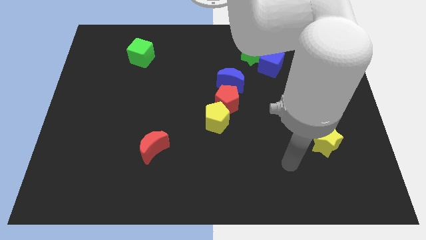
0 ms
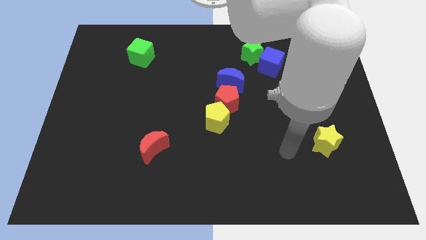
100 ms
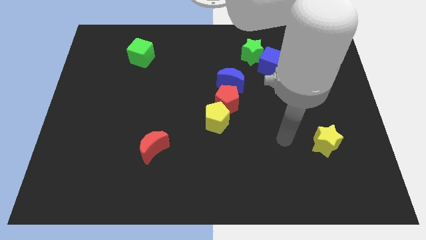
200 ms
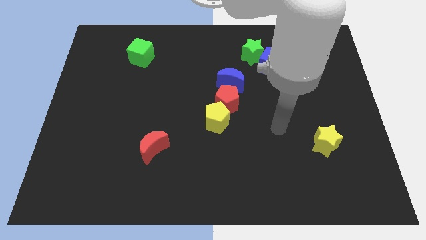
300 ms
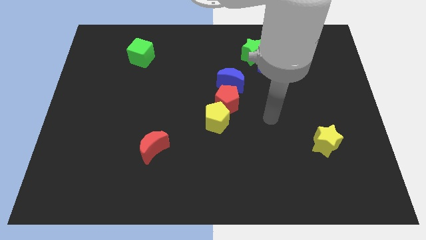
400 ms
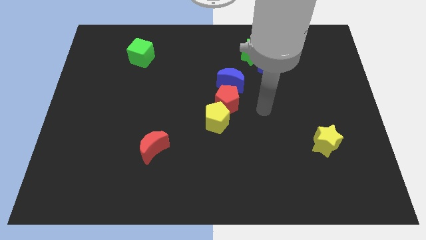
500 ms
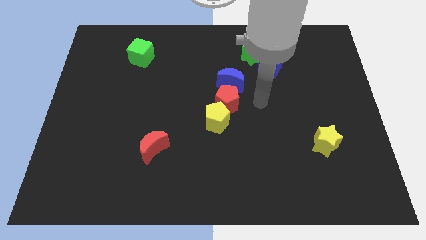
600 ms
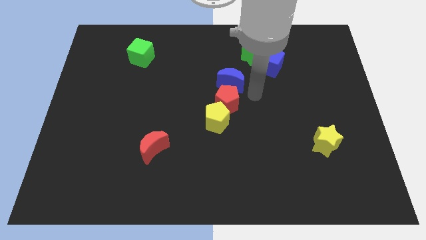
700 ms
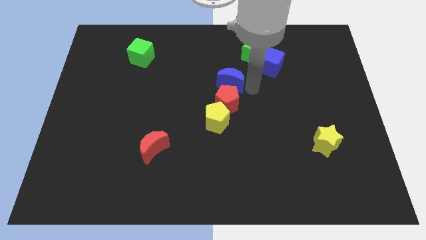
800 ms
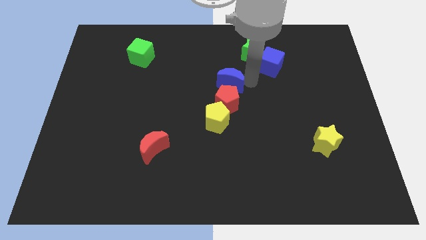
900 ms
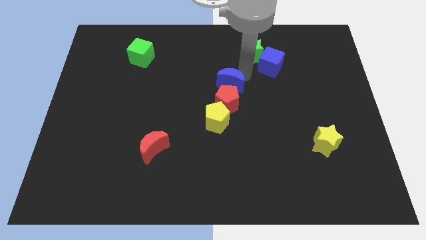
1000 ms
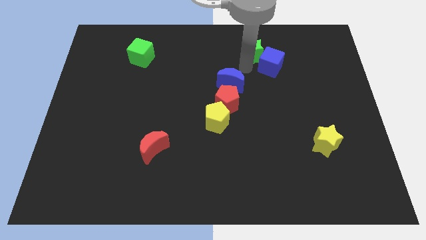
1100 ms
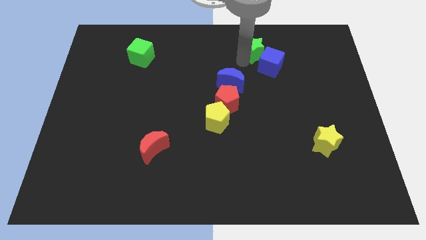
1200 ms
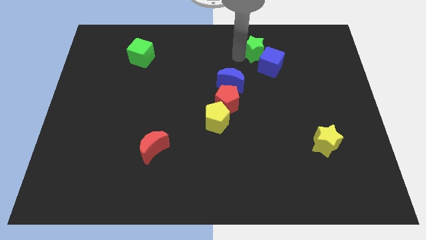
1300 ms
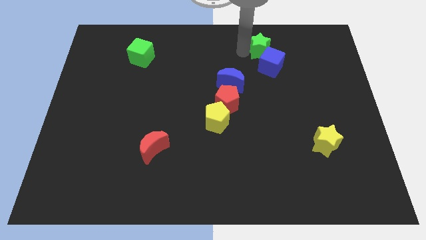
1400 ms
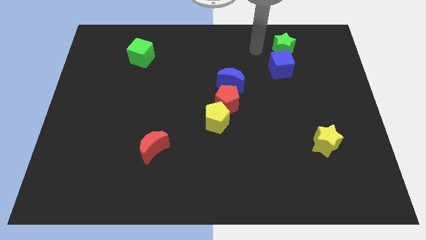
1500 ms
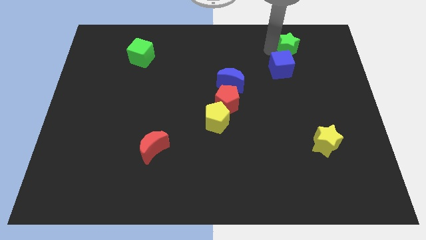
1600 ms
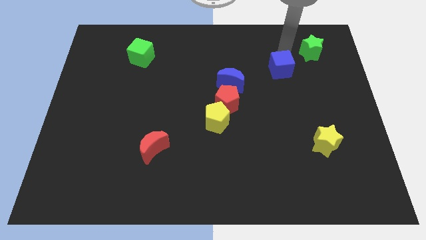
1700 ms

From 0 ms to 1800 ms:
separate the blue cube from the green star

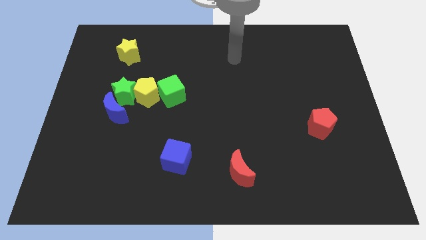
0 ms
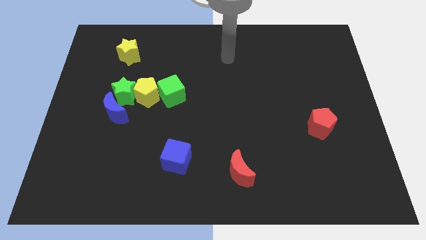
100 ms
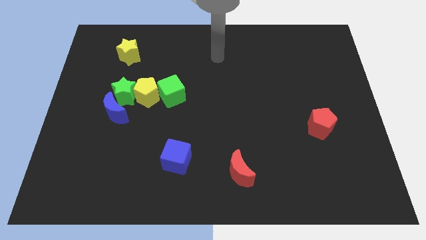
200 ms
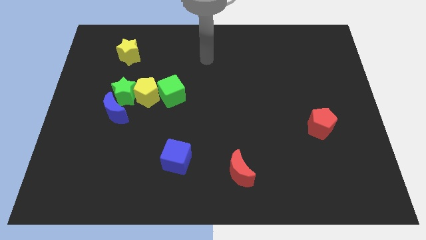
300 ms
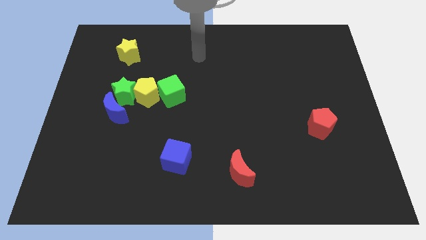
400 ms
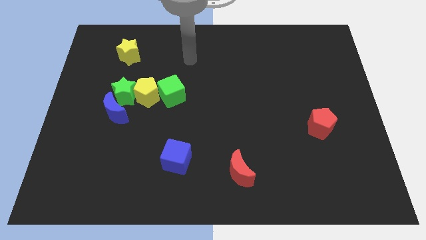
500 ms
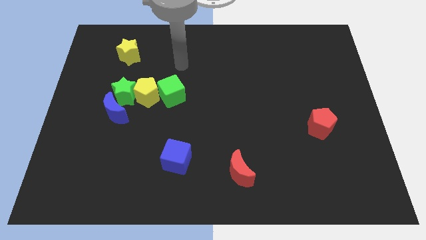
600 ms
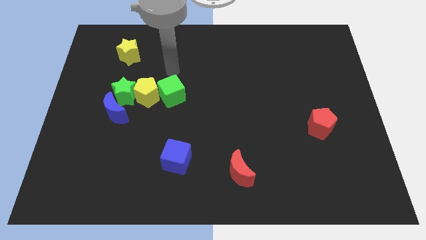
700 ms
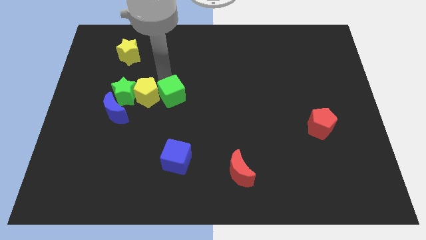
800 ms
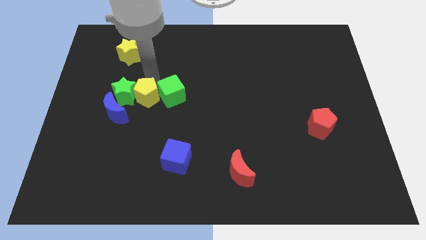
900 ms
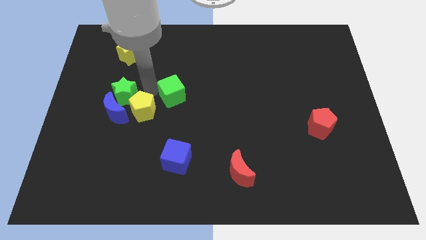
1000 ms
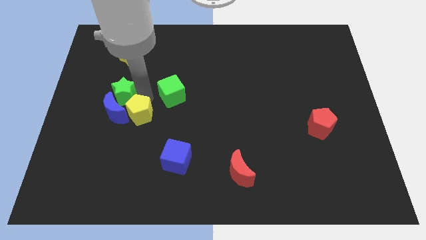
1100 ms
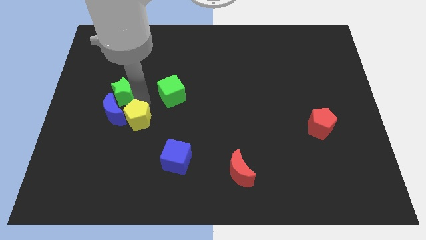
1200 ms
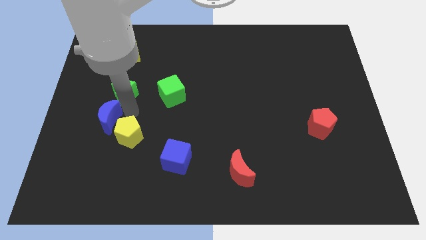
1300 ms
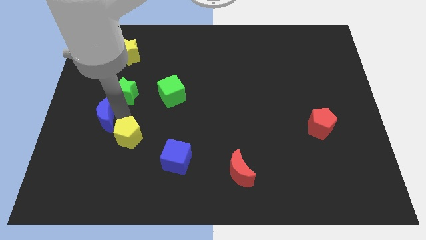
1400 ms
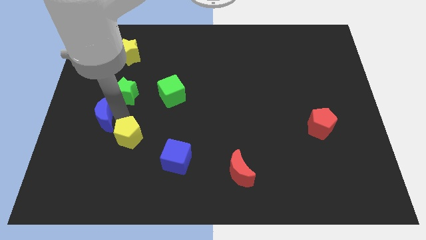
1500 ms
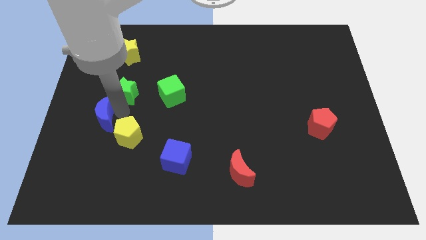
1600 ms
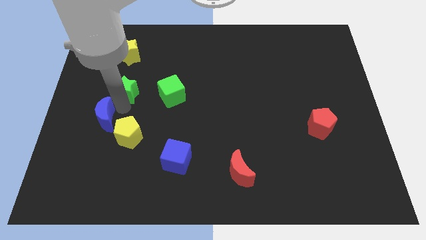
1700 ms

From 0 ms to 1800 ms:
move the green star away from the yellow pentagon and blue moon

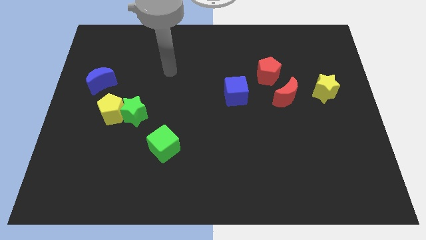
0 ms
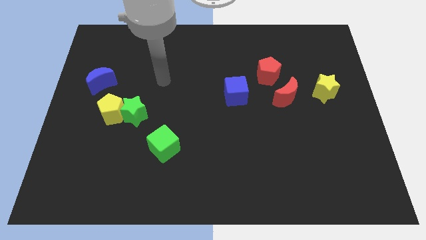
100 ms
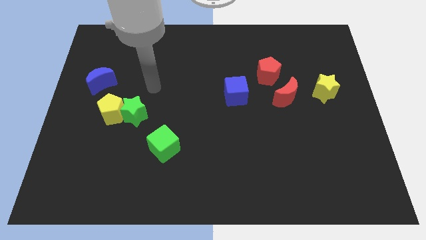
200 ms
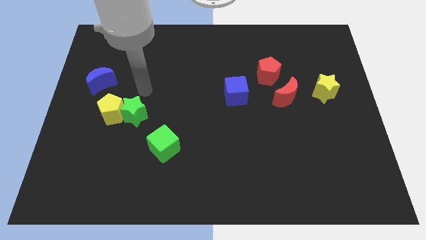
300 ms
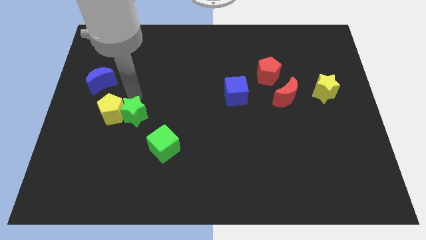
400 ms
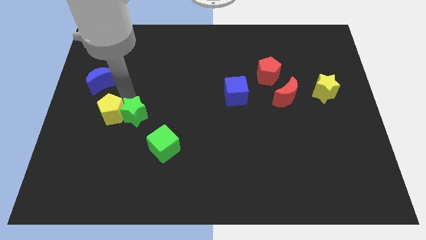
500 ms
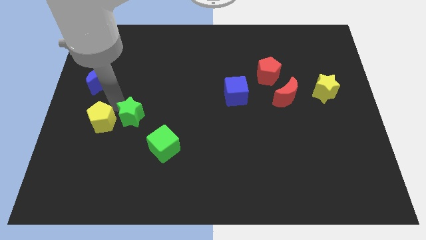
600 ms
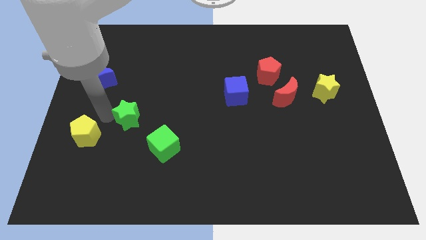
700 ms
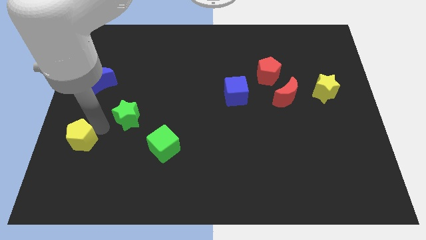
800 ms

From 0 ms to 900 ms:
separate the green star from the yellow pentagon

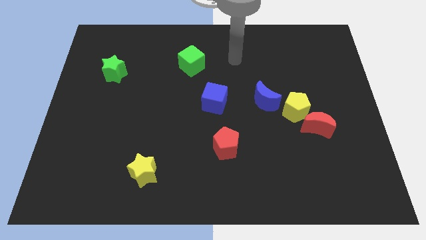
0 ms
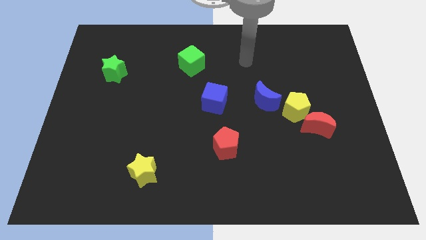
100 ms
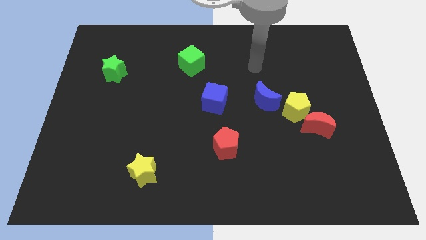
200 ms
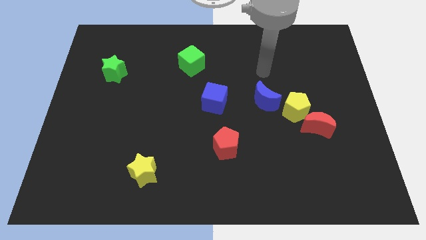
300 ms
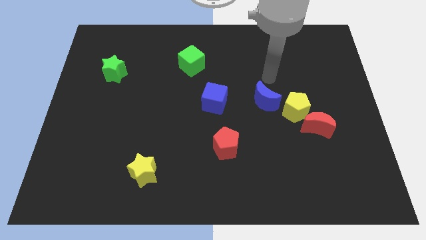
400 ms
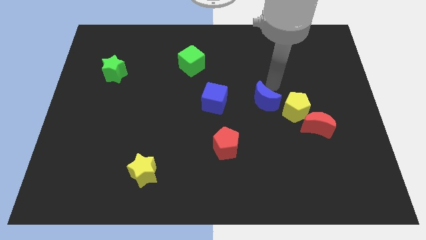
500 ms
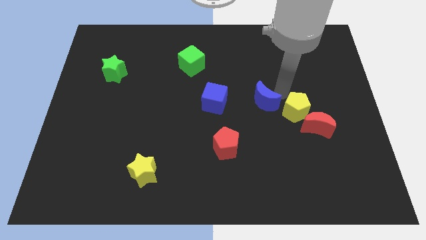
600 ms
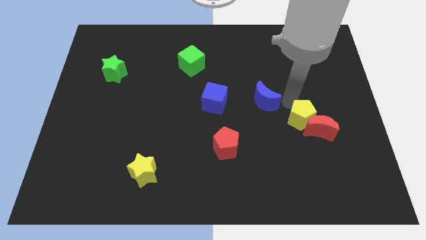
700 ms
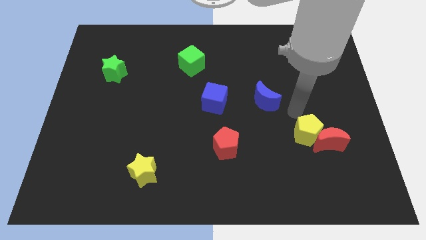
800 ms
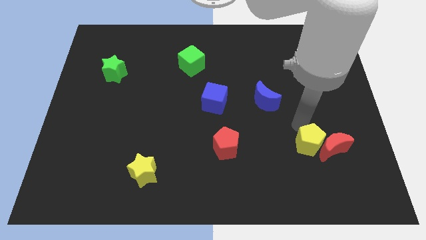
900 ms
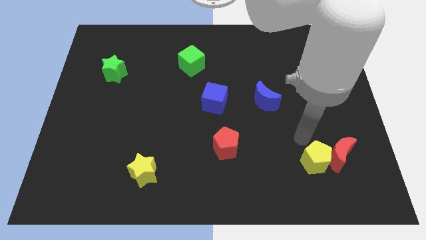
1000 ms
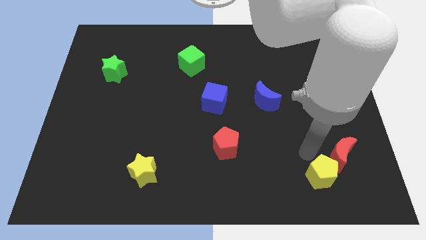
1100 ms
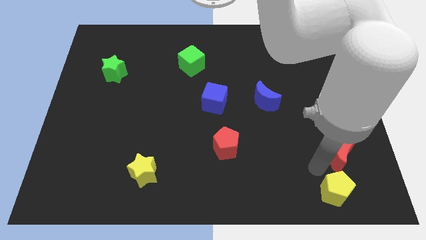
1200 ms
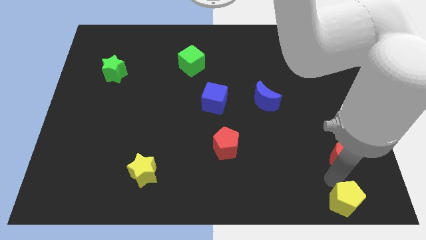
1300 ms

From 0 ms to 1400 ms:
separate the red moon from the yellow pentagon

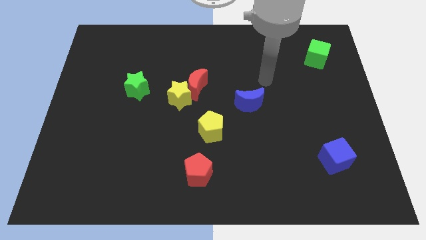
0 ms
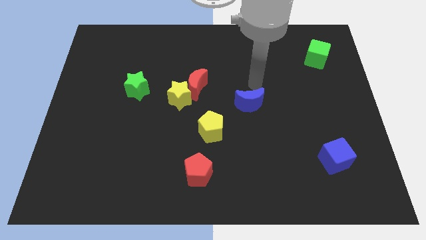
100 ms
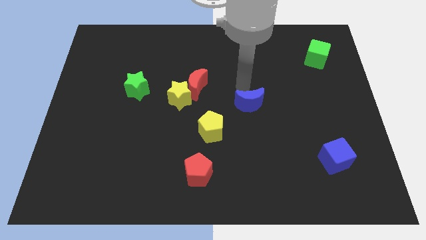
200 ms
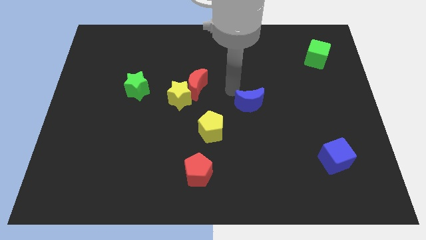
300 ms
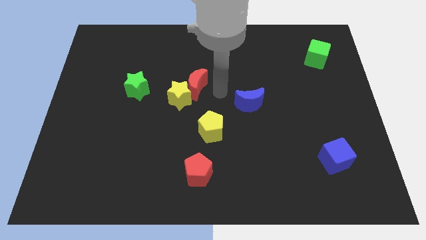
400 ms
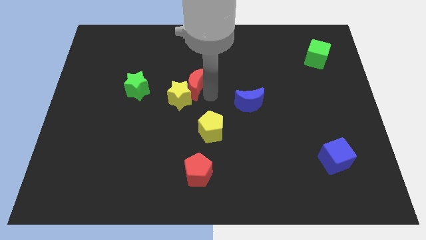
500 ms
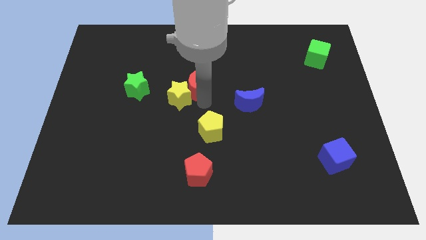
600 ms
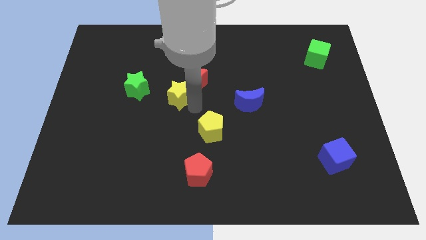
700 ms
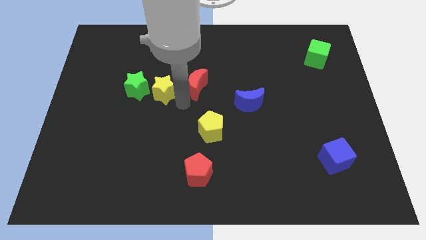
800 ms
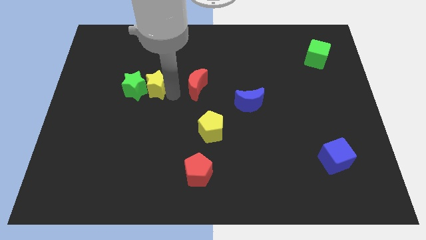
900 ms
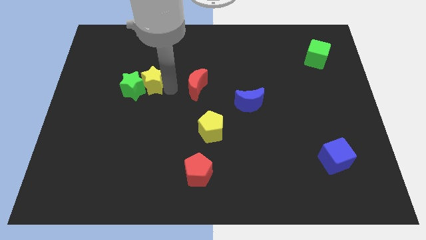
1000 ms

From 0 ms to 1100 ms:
separate the red moon from the yellow star

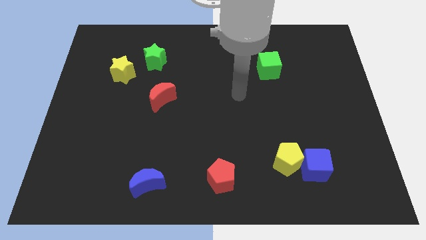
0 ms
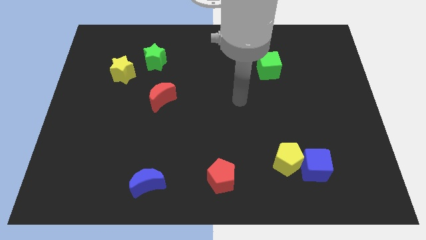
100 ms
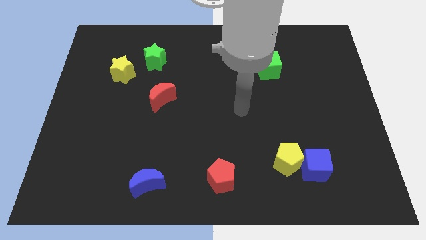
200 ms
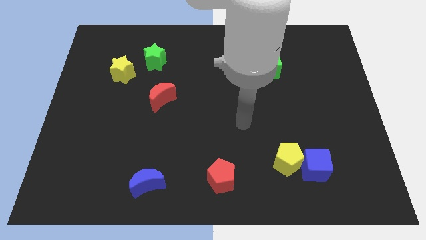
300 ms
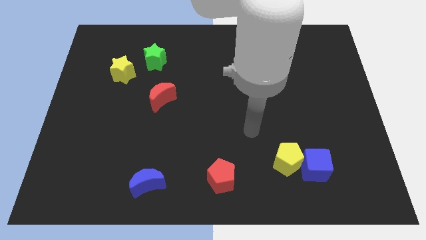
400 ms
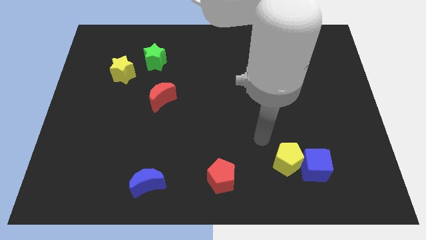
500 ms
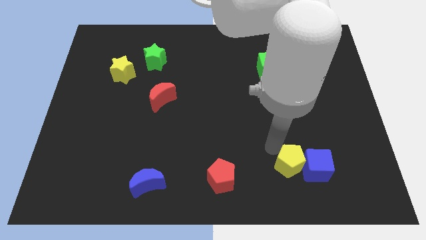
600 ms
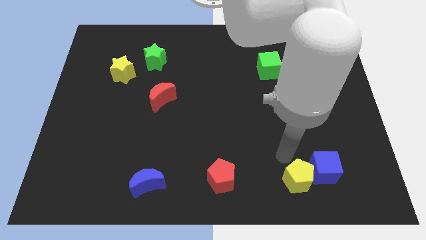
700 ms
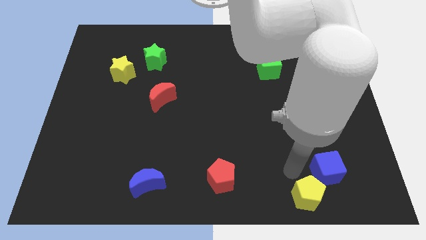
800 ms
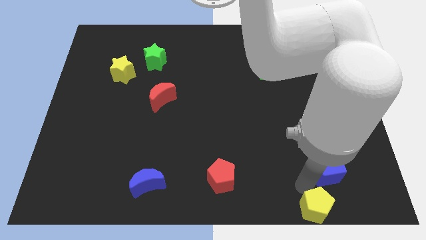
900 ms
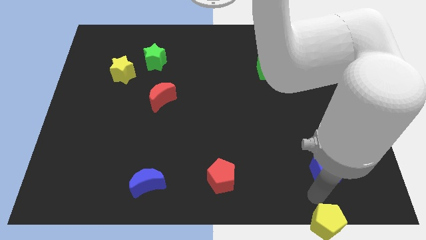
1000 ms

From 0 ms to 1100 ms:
separate the blue cube from the yellow pentagon

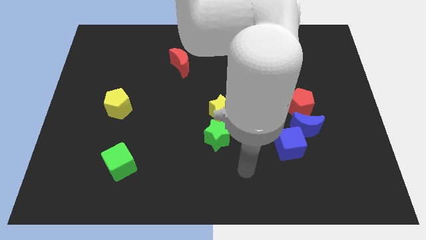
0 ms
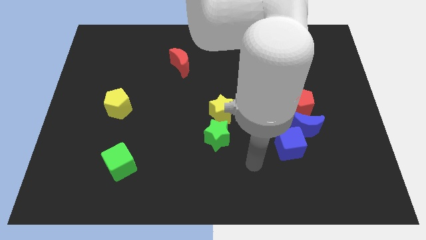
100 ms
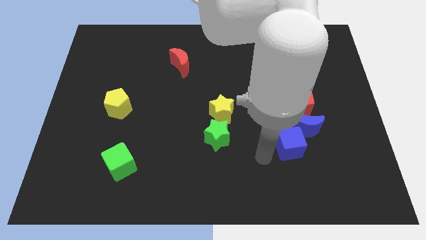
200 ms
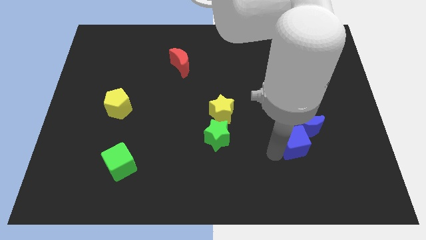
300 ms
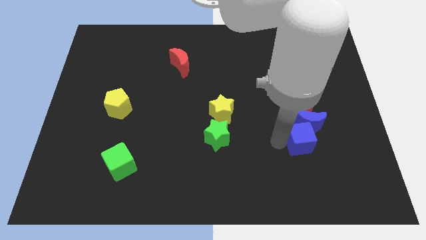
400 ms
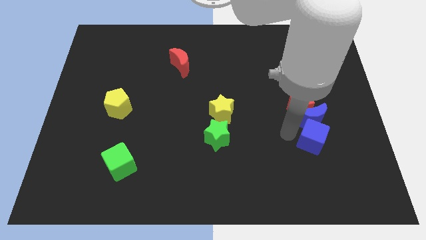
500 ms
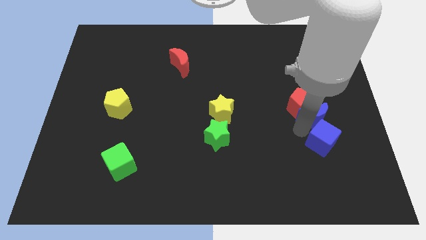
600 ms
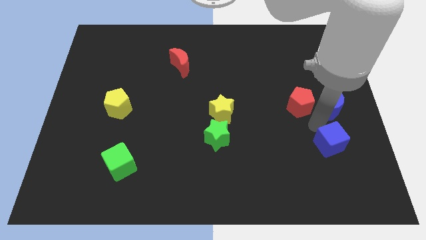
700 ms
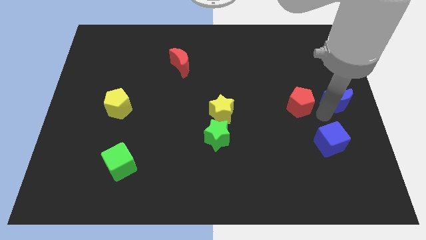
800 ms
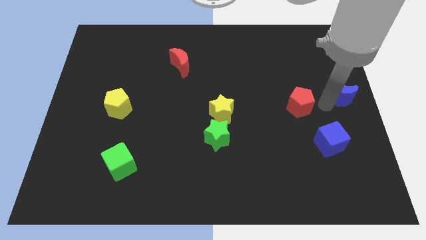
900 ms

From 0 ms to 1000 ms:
separate the red pentagon from the blue moon

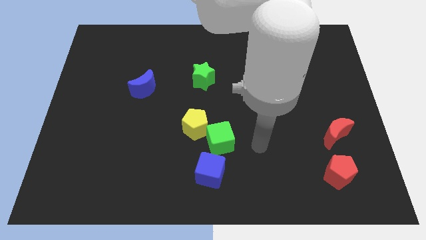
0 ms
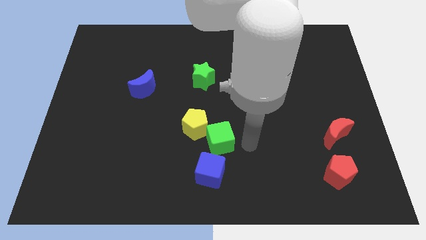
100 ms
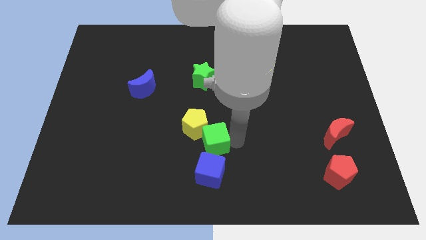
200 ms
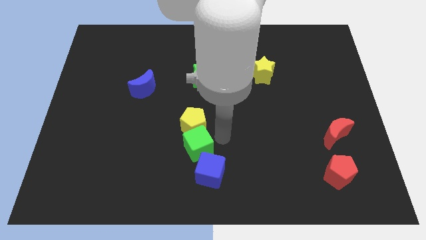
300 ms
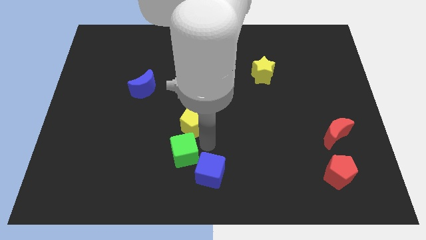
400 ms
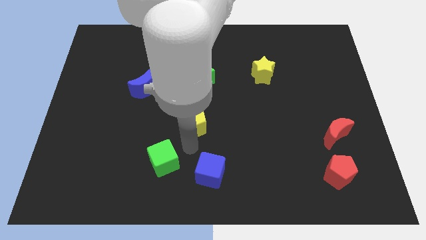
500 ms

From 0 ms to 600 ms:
move the yellow pentagon away from the green cube
